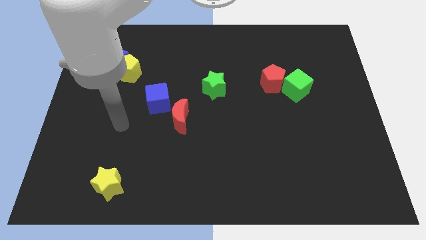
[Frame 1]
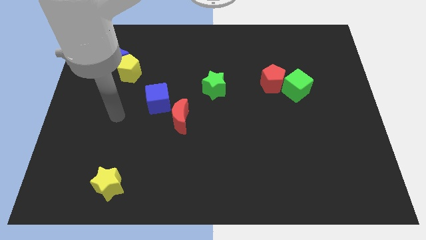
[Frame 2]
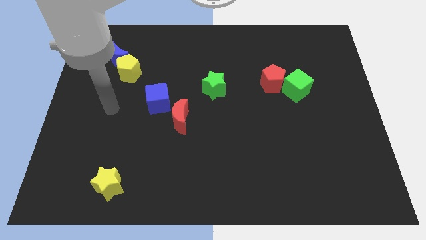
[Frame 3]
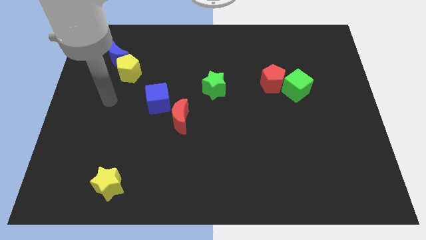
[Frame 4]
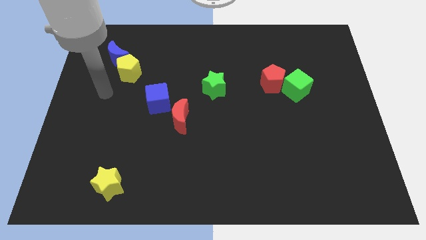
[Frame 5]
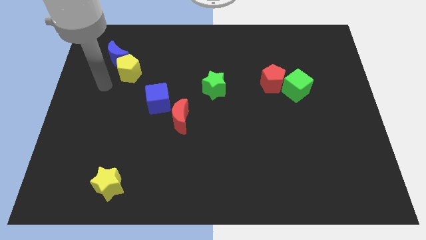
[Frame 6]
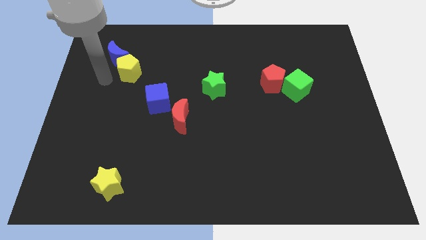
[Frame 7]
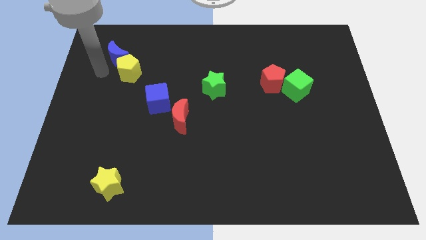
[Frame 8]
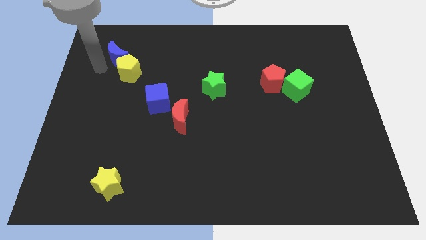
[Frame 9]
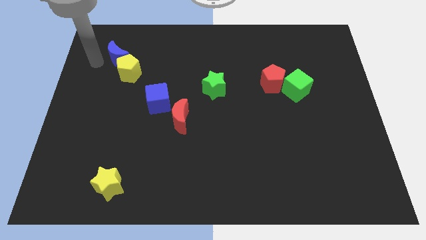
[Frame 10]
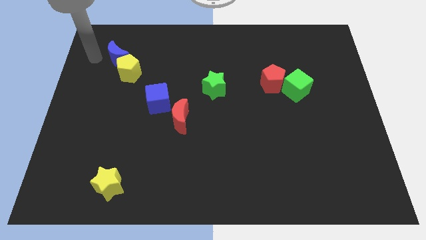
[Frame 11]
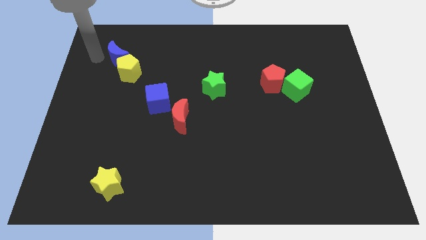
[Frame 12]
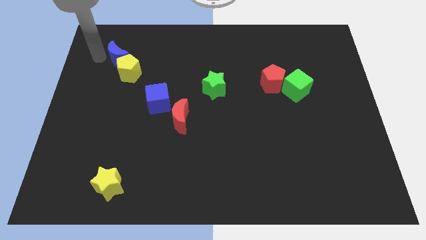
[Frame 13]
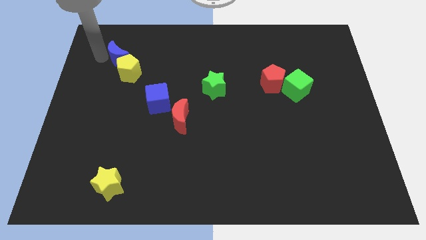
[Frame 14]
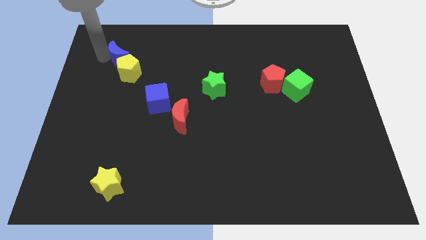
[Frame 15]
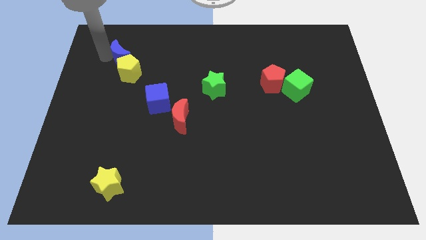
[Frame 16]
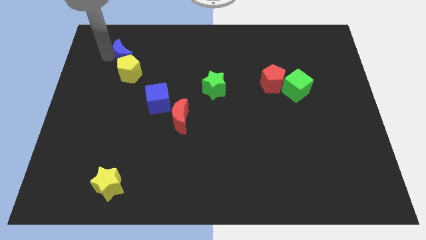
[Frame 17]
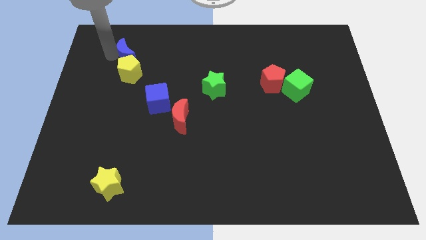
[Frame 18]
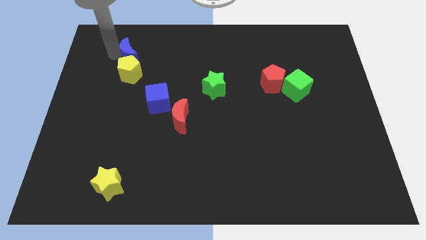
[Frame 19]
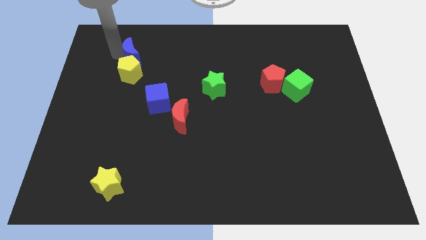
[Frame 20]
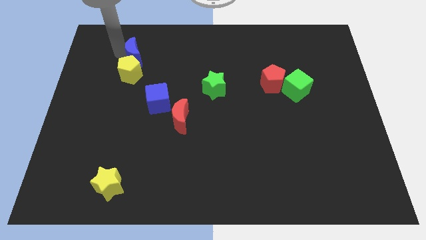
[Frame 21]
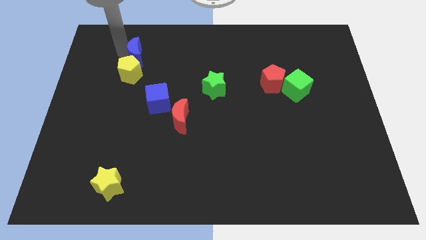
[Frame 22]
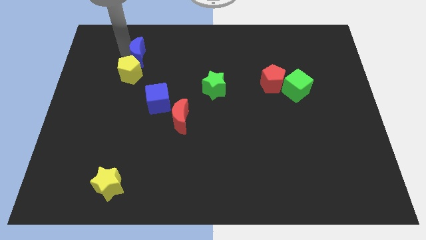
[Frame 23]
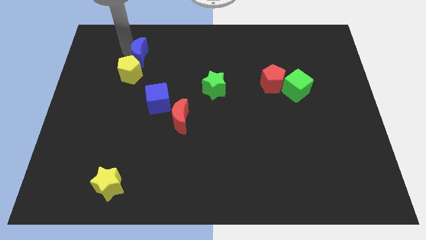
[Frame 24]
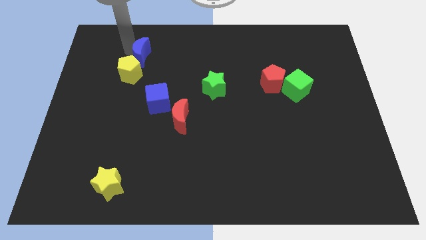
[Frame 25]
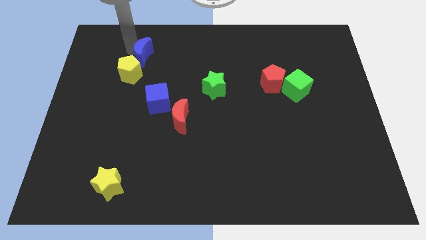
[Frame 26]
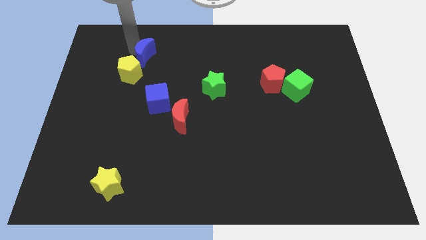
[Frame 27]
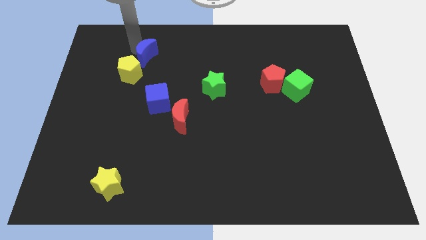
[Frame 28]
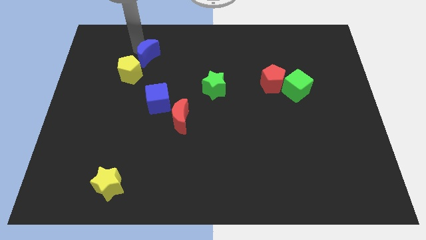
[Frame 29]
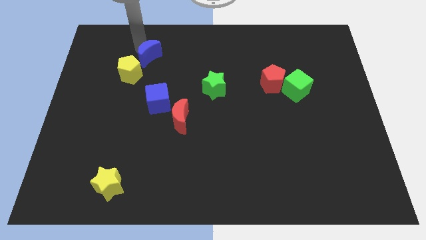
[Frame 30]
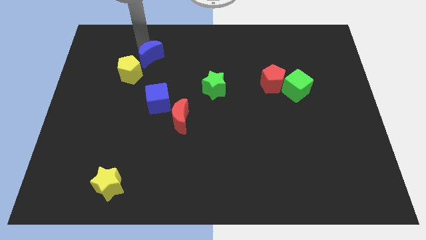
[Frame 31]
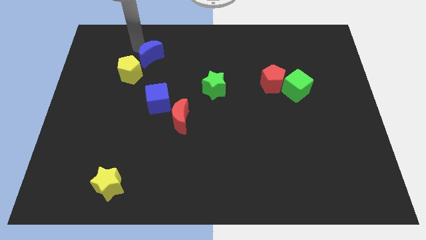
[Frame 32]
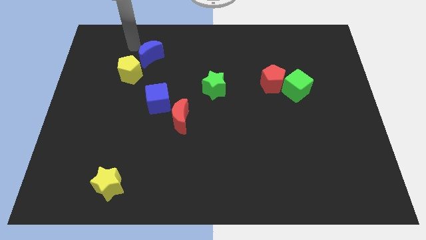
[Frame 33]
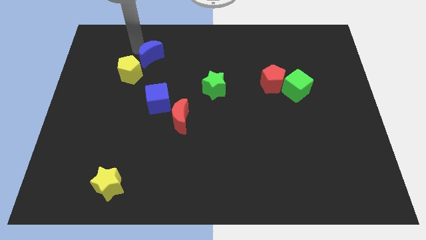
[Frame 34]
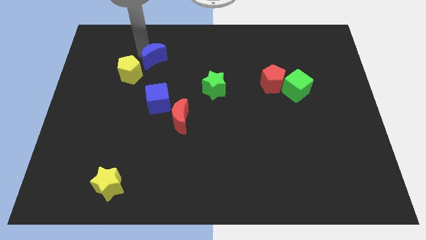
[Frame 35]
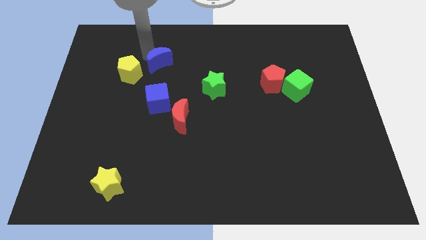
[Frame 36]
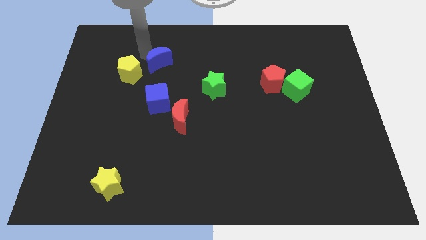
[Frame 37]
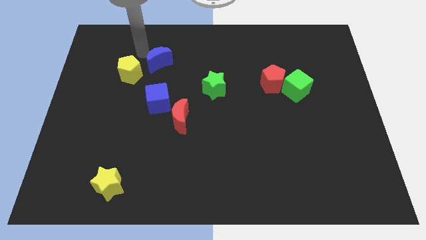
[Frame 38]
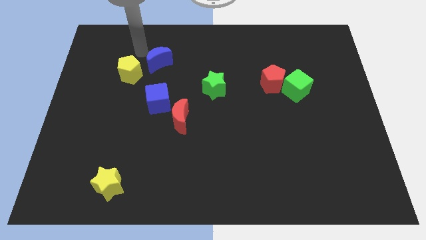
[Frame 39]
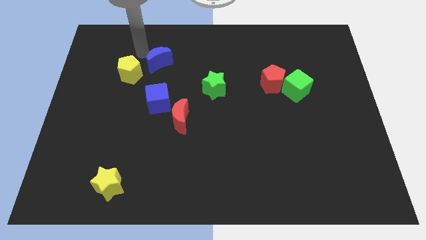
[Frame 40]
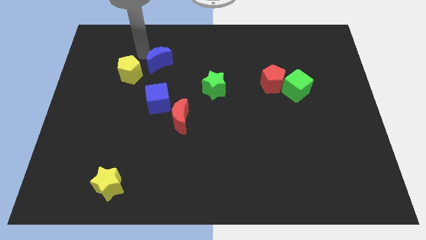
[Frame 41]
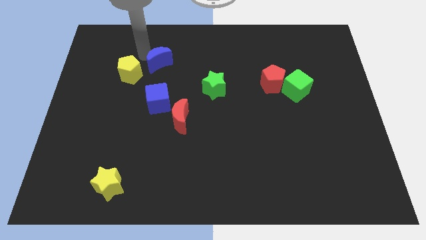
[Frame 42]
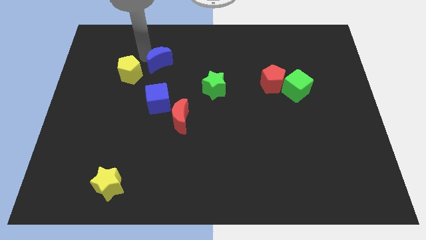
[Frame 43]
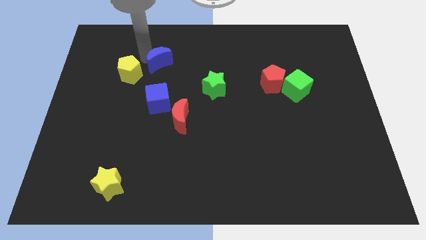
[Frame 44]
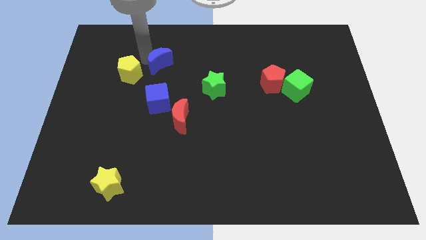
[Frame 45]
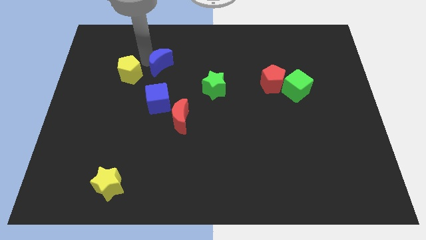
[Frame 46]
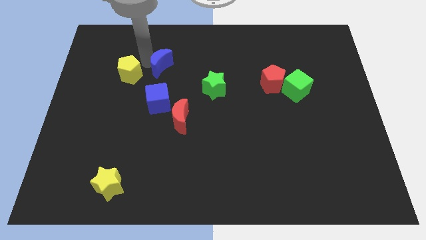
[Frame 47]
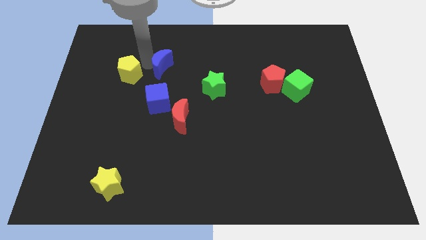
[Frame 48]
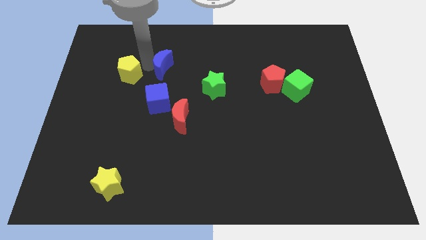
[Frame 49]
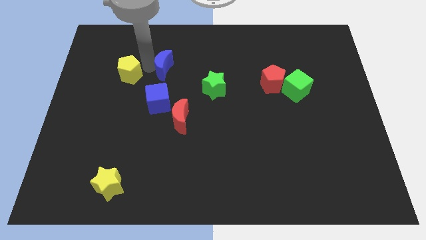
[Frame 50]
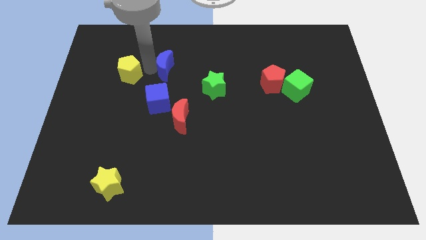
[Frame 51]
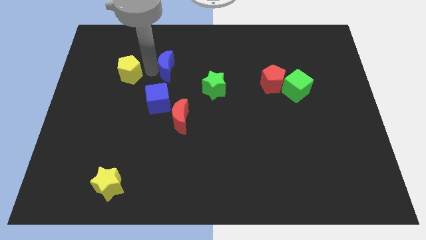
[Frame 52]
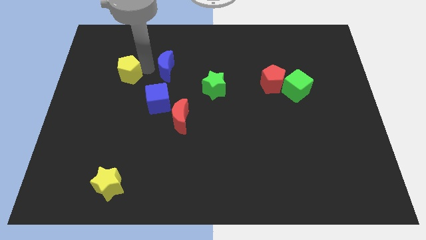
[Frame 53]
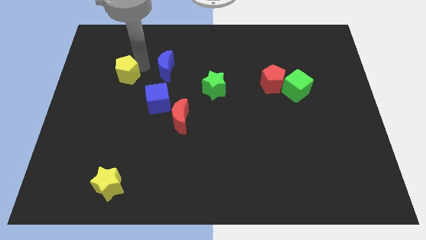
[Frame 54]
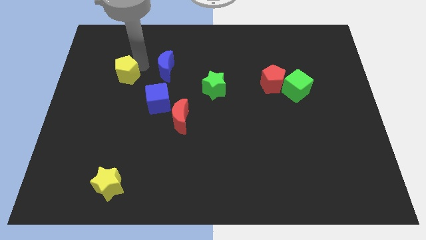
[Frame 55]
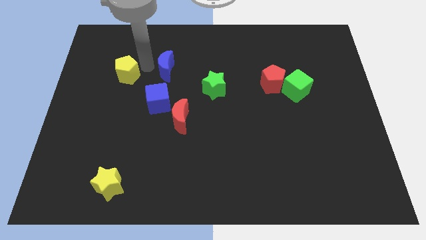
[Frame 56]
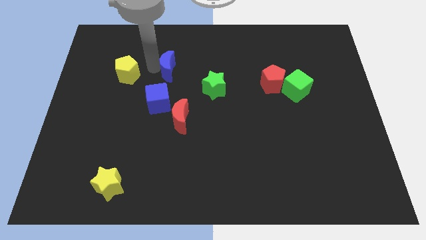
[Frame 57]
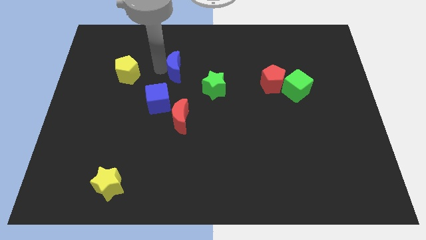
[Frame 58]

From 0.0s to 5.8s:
put the blue moon to the top left side of the green star

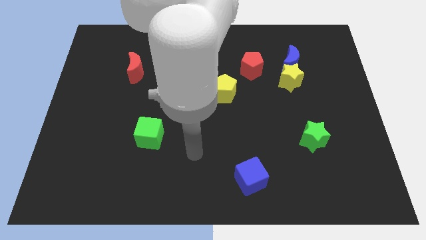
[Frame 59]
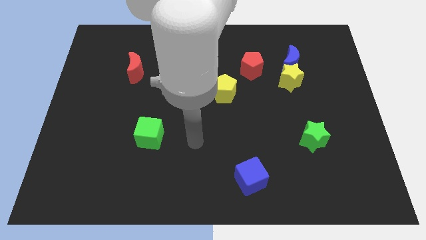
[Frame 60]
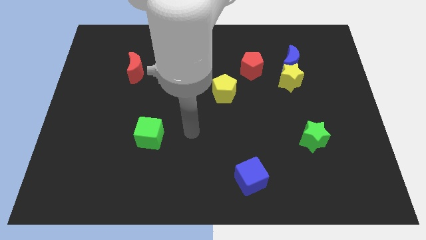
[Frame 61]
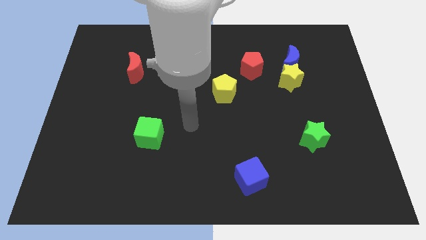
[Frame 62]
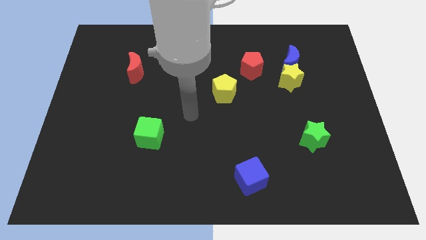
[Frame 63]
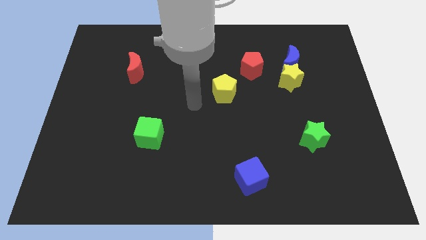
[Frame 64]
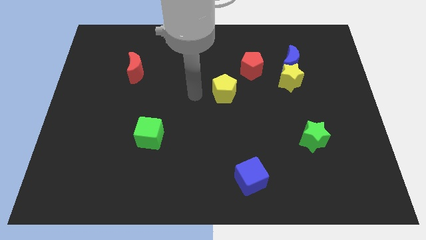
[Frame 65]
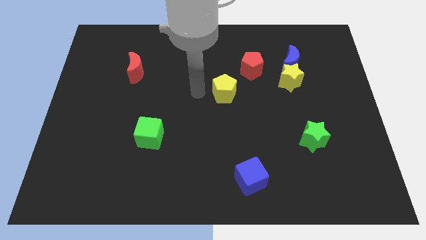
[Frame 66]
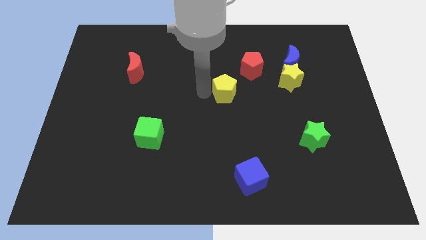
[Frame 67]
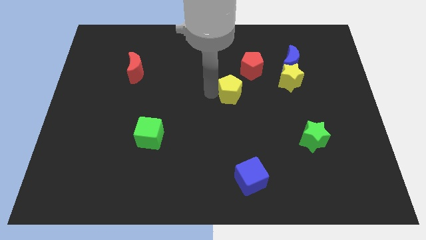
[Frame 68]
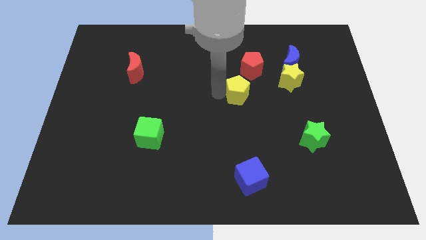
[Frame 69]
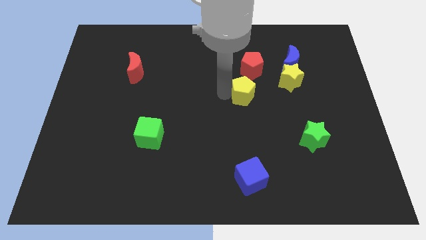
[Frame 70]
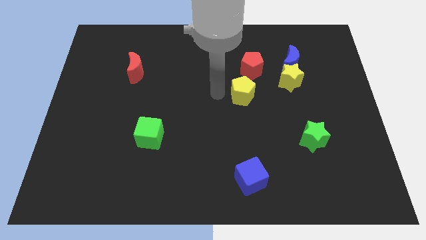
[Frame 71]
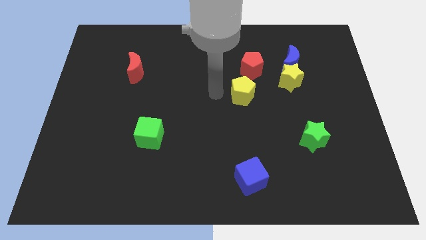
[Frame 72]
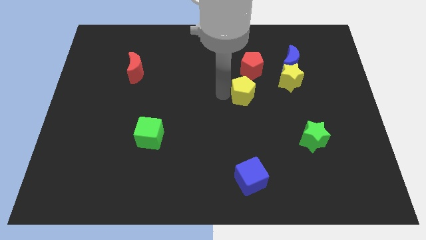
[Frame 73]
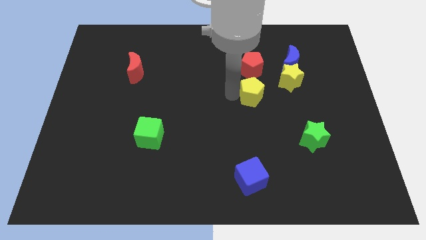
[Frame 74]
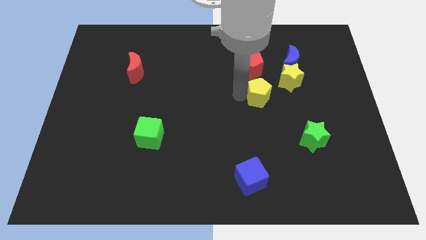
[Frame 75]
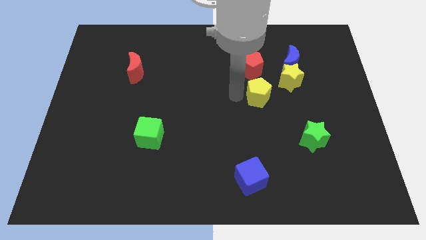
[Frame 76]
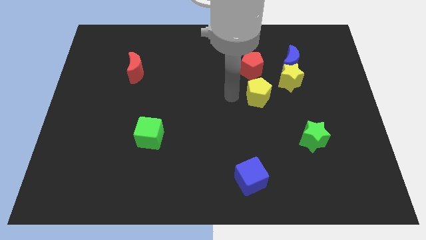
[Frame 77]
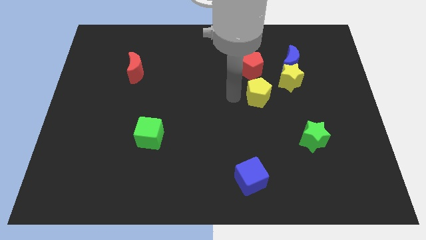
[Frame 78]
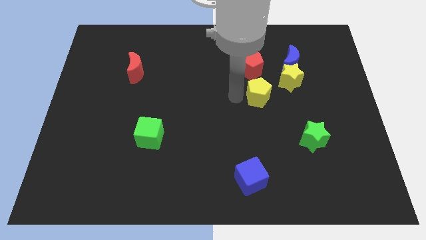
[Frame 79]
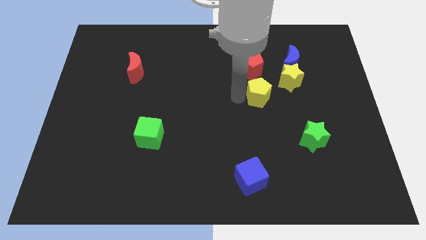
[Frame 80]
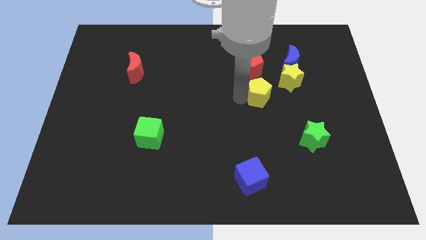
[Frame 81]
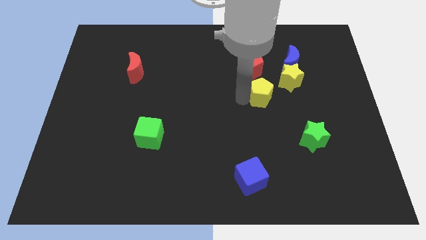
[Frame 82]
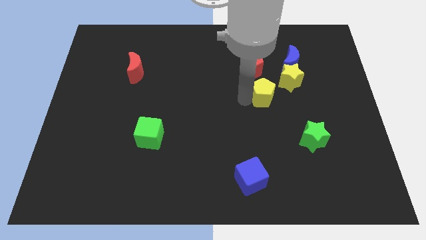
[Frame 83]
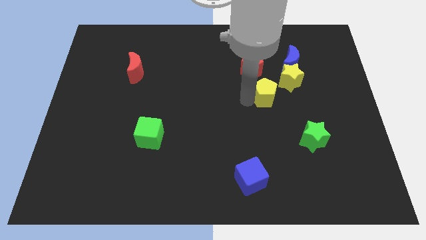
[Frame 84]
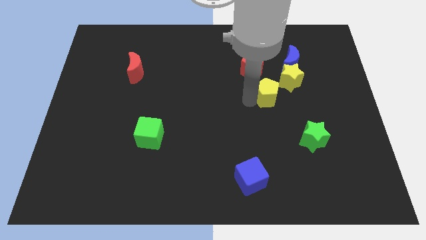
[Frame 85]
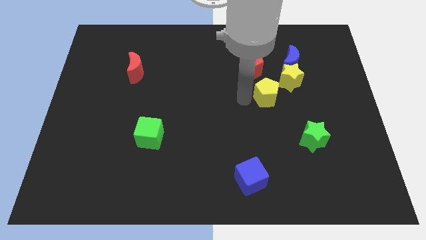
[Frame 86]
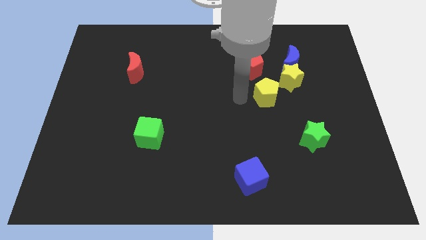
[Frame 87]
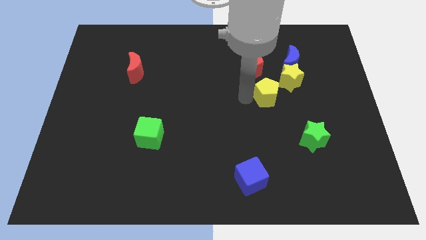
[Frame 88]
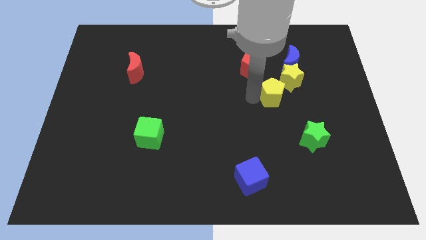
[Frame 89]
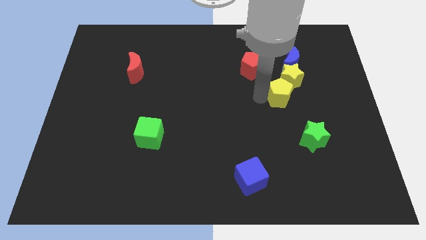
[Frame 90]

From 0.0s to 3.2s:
push the yellow pentagon to the bottom side of the blue moon
